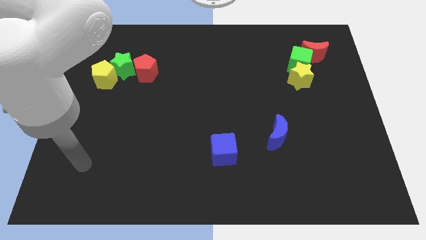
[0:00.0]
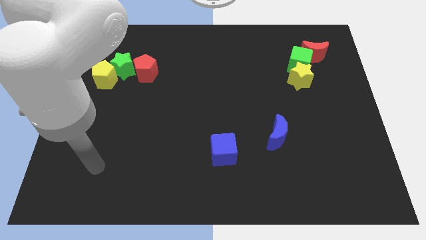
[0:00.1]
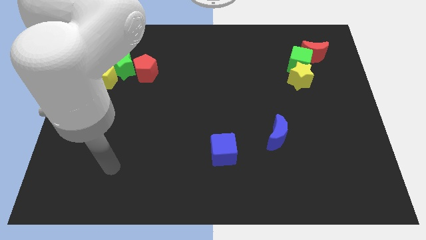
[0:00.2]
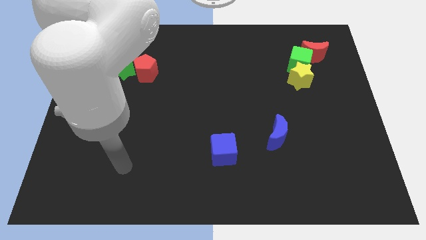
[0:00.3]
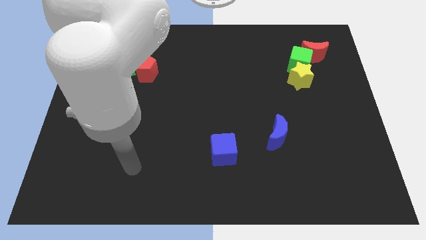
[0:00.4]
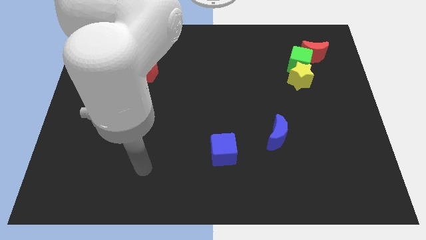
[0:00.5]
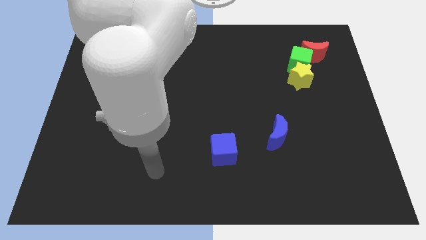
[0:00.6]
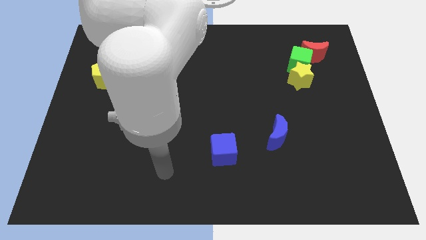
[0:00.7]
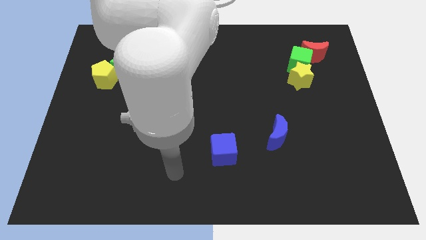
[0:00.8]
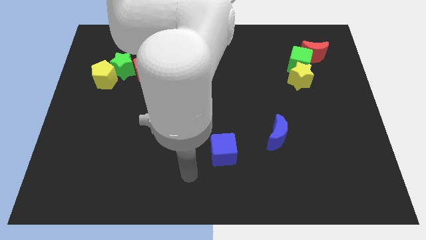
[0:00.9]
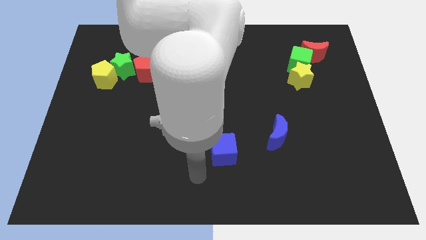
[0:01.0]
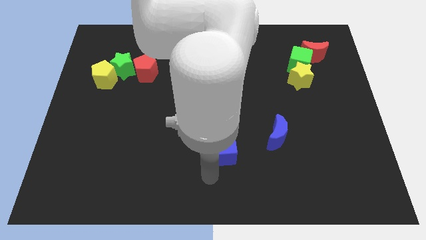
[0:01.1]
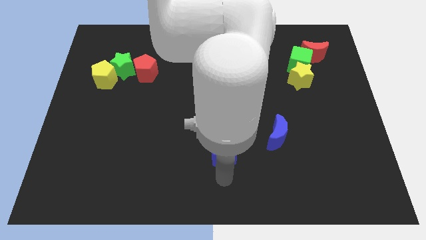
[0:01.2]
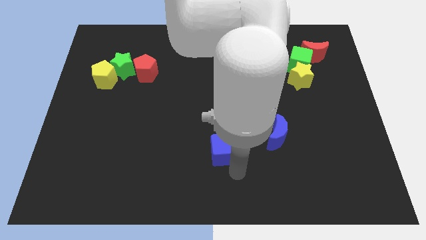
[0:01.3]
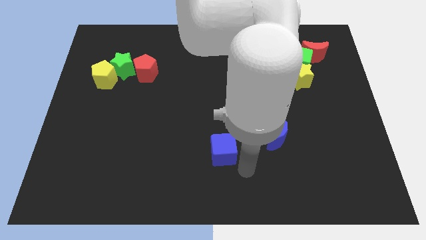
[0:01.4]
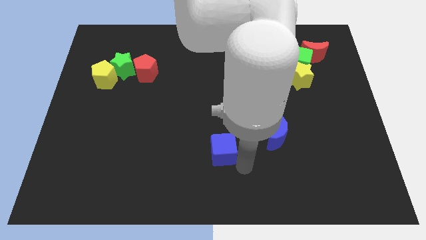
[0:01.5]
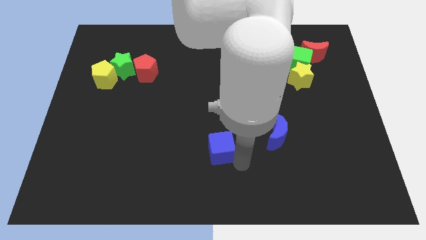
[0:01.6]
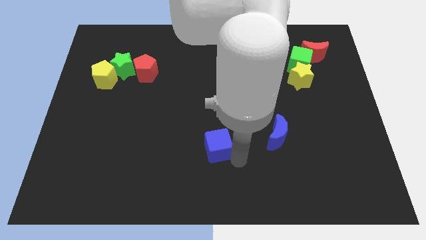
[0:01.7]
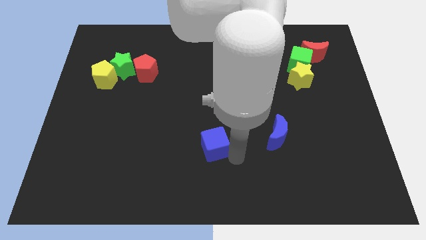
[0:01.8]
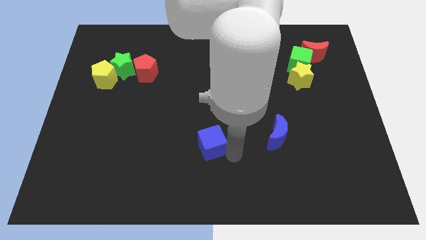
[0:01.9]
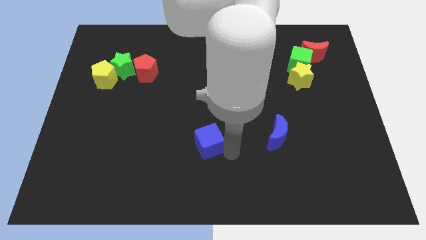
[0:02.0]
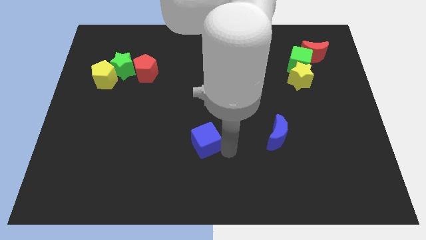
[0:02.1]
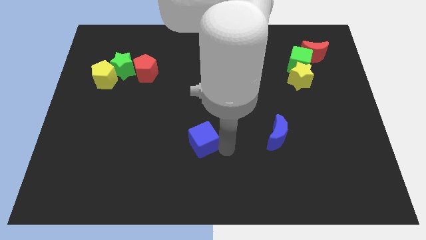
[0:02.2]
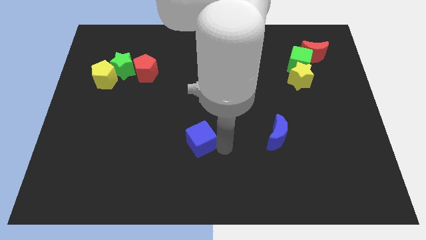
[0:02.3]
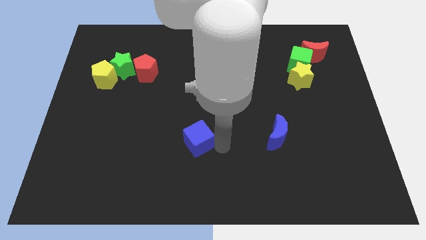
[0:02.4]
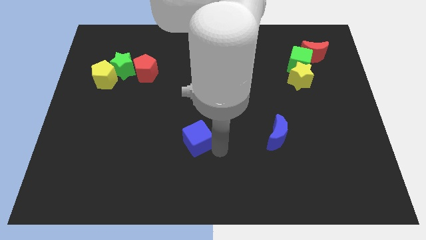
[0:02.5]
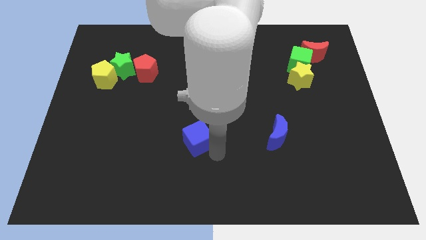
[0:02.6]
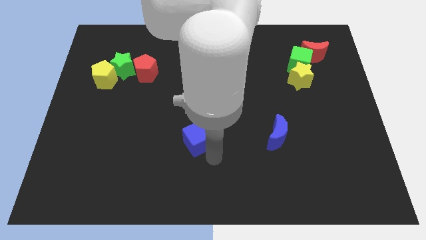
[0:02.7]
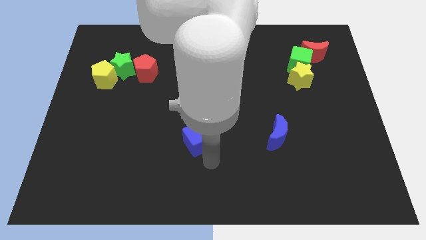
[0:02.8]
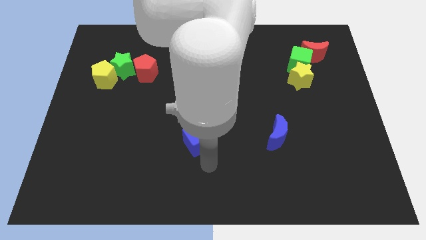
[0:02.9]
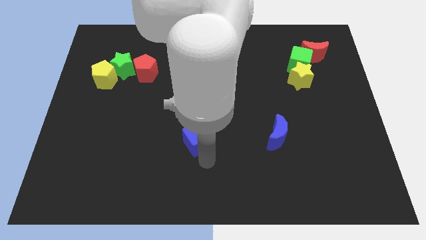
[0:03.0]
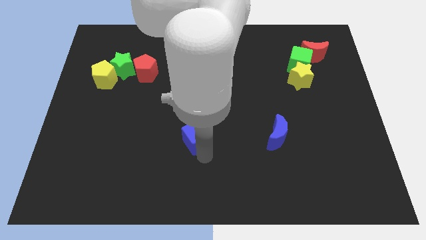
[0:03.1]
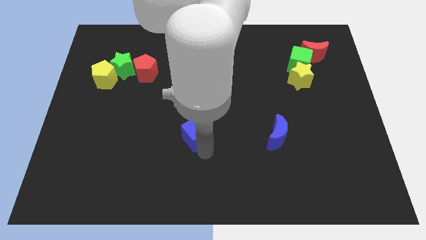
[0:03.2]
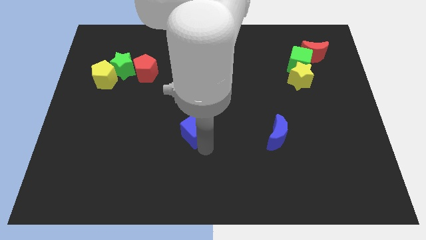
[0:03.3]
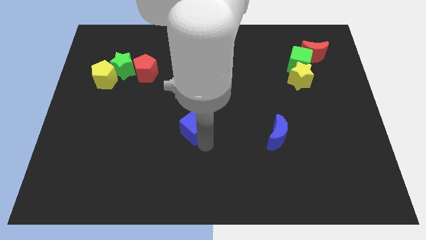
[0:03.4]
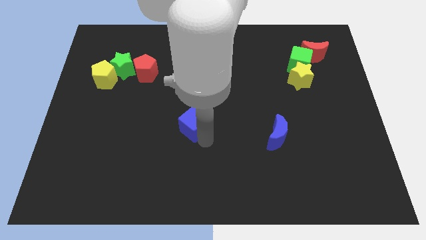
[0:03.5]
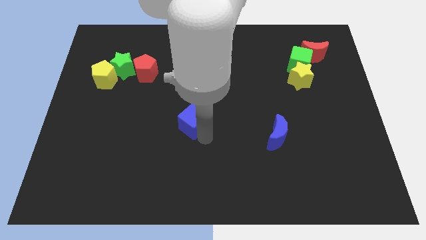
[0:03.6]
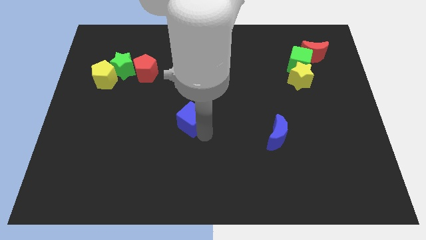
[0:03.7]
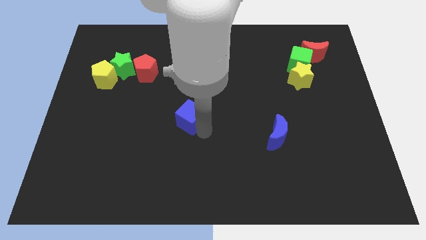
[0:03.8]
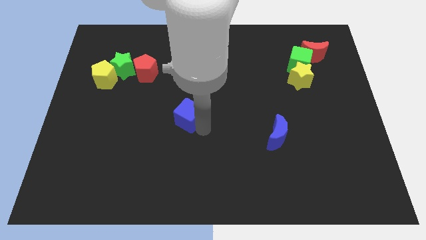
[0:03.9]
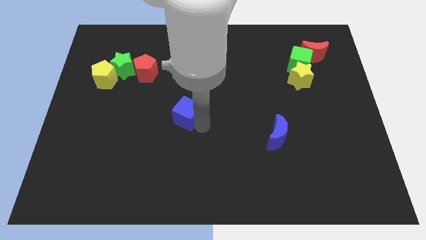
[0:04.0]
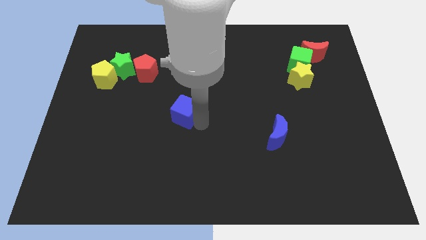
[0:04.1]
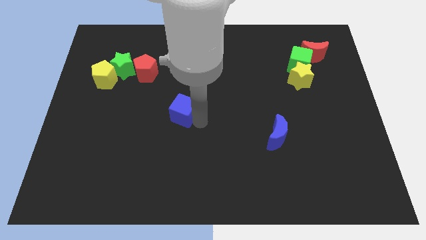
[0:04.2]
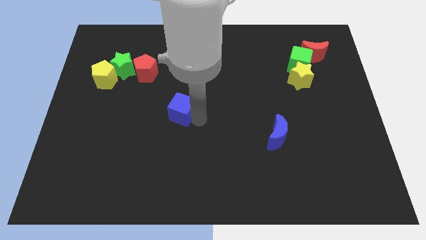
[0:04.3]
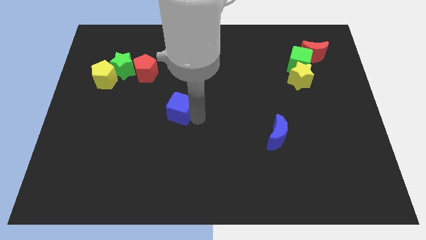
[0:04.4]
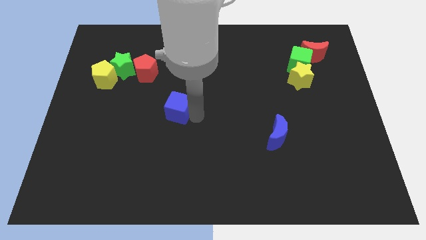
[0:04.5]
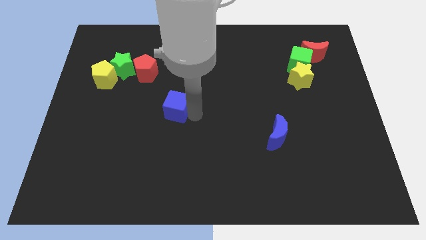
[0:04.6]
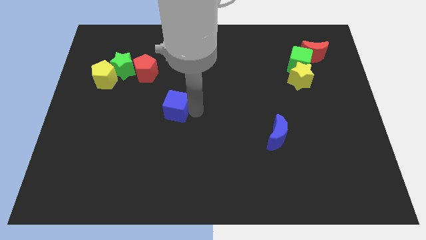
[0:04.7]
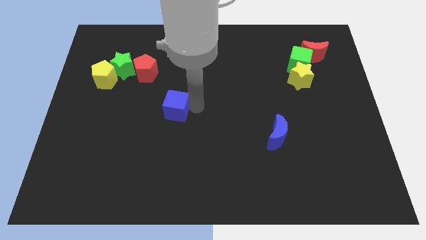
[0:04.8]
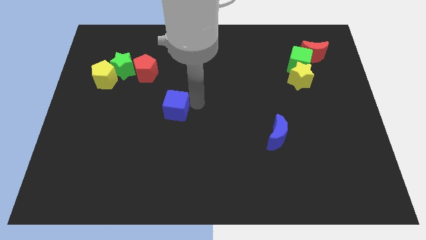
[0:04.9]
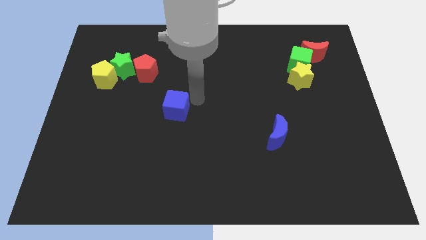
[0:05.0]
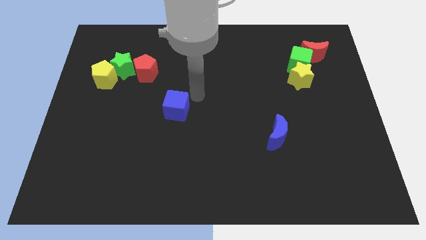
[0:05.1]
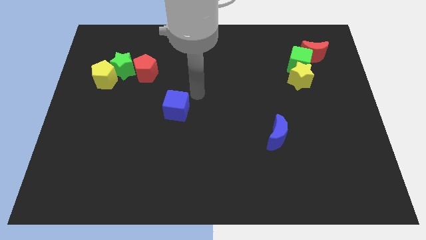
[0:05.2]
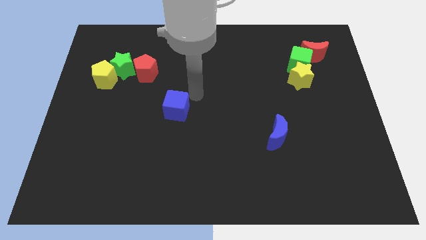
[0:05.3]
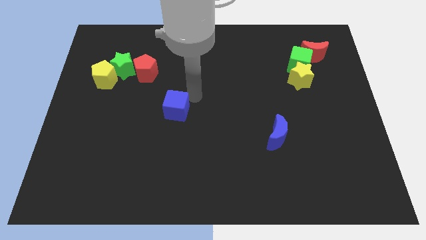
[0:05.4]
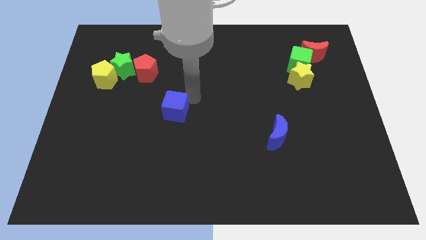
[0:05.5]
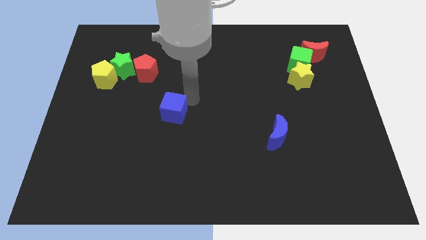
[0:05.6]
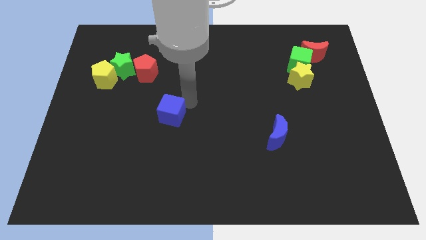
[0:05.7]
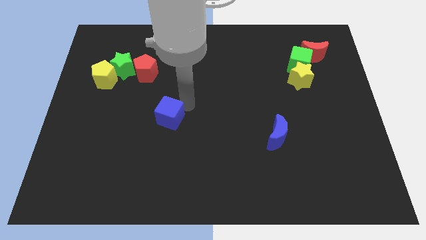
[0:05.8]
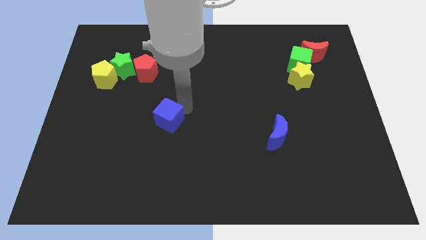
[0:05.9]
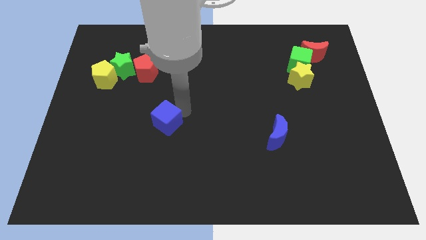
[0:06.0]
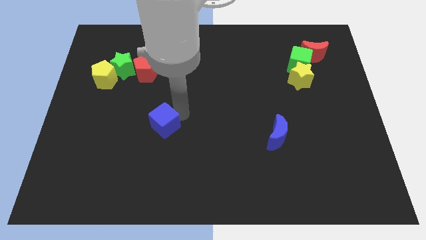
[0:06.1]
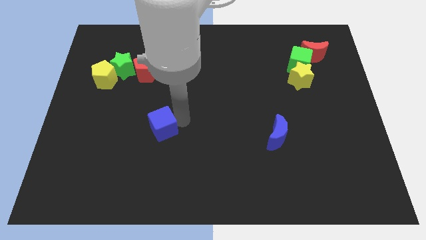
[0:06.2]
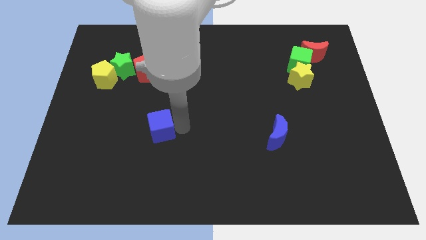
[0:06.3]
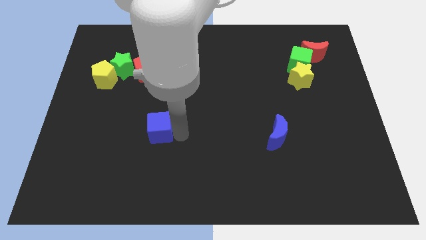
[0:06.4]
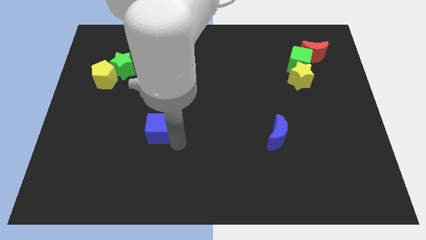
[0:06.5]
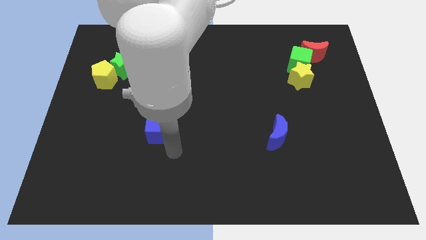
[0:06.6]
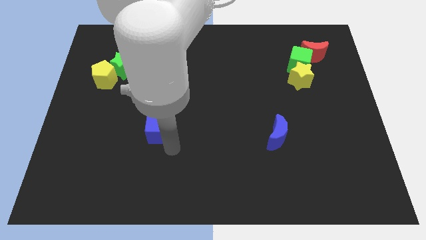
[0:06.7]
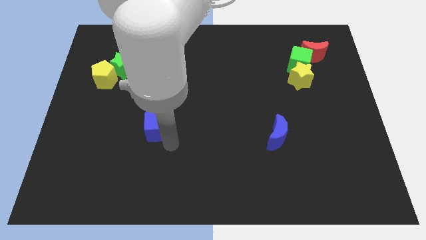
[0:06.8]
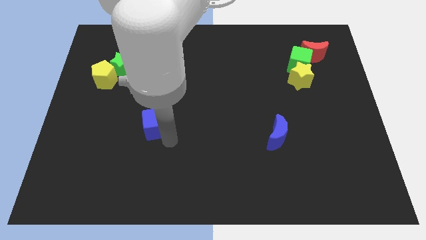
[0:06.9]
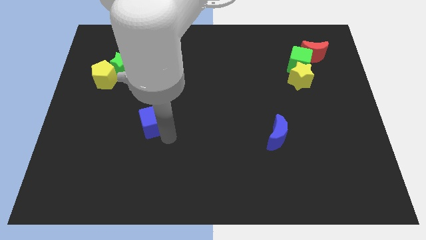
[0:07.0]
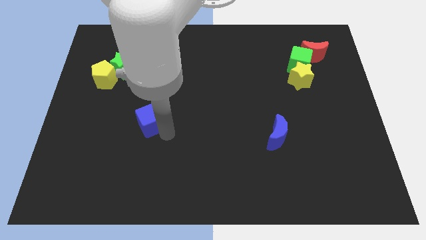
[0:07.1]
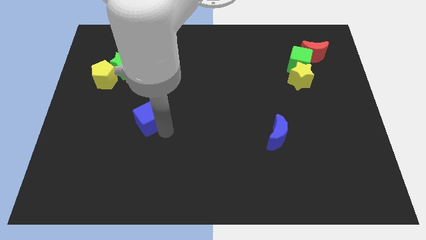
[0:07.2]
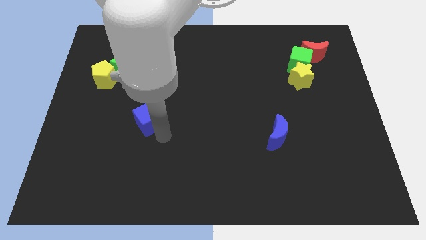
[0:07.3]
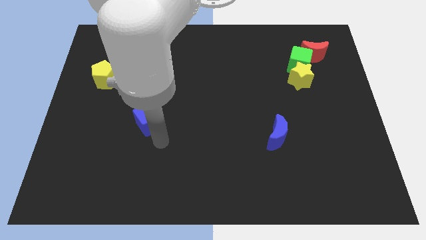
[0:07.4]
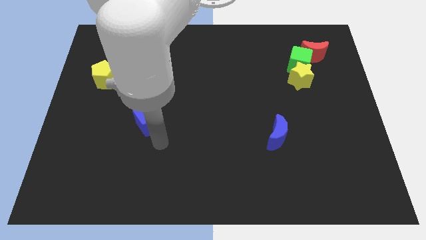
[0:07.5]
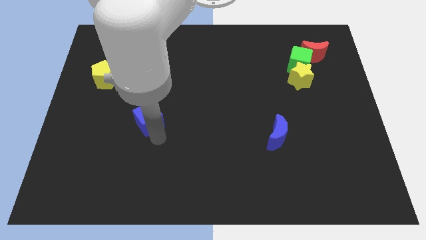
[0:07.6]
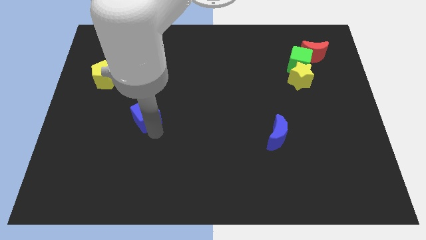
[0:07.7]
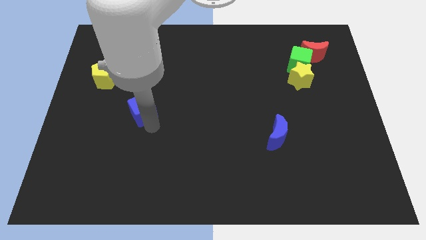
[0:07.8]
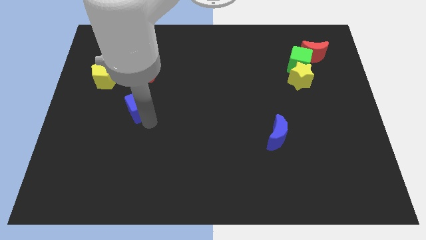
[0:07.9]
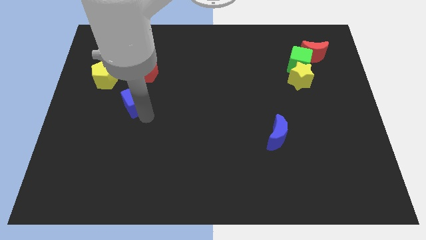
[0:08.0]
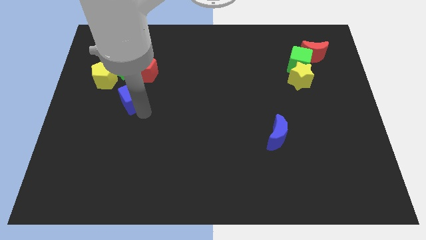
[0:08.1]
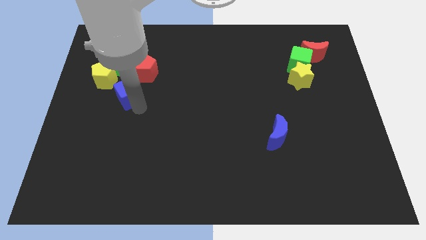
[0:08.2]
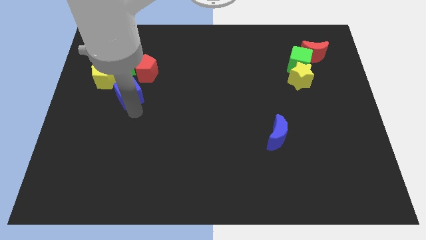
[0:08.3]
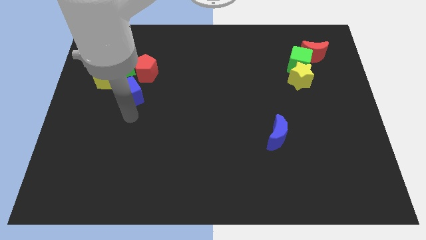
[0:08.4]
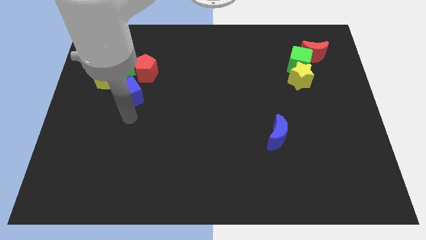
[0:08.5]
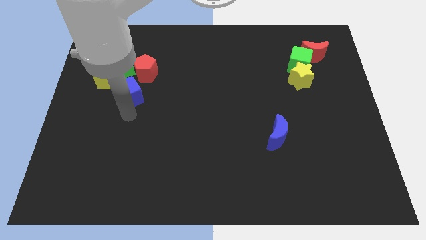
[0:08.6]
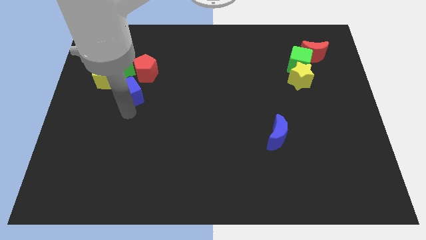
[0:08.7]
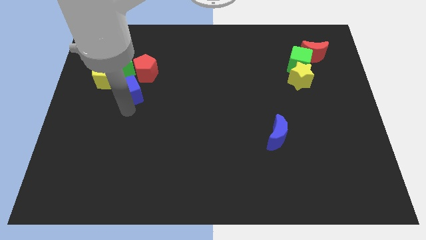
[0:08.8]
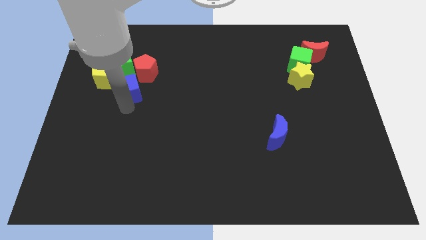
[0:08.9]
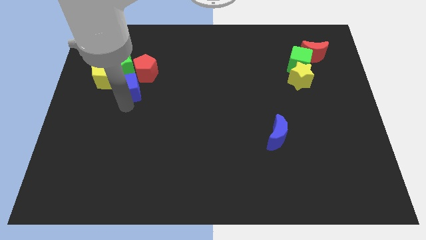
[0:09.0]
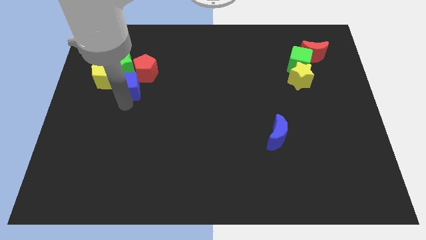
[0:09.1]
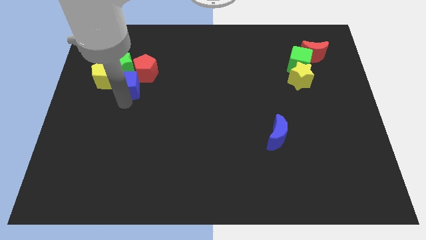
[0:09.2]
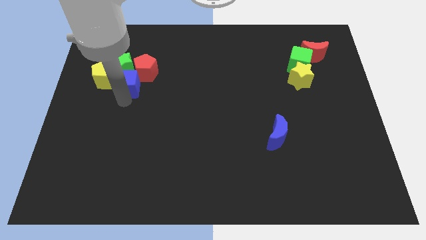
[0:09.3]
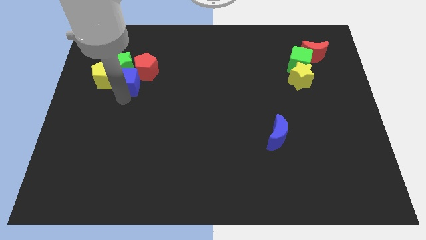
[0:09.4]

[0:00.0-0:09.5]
move the blue cube to the green star
